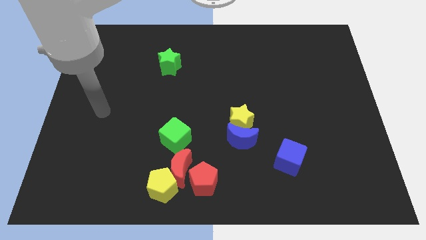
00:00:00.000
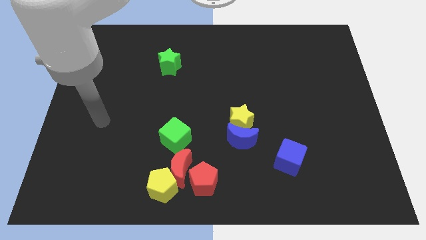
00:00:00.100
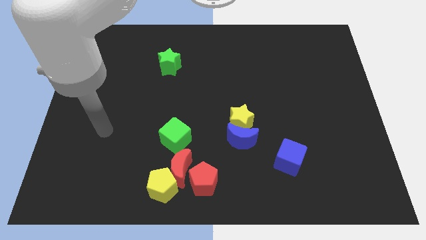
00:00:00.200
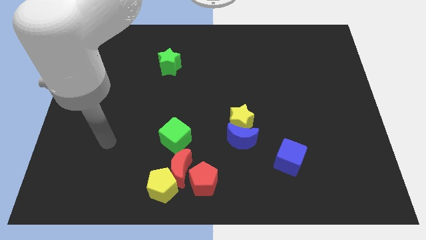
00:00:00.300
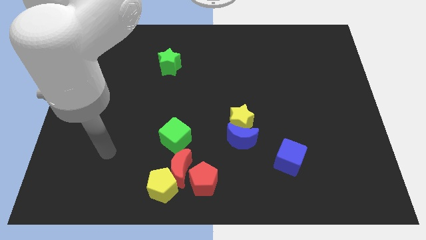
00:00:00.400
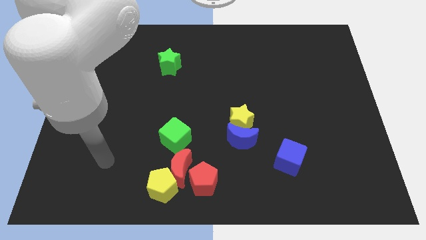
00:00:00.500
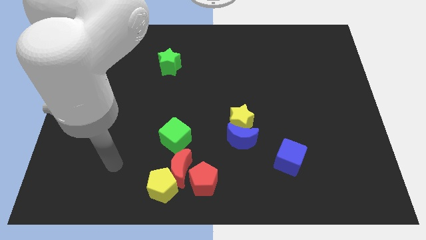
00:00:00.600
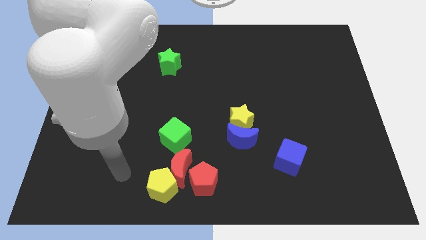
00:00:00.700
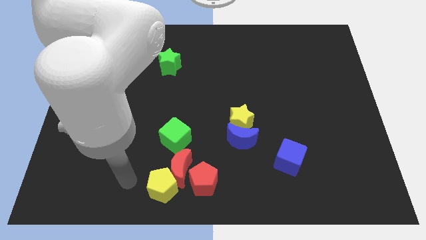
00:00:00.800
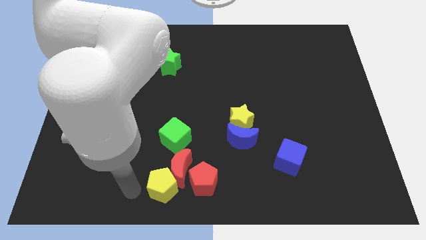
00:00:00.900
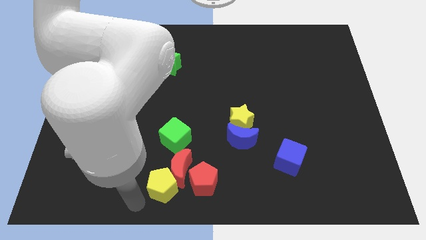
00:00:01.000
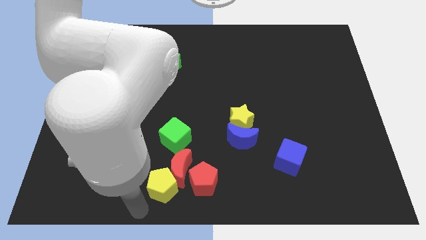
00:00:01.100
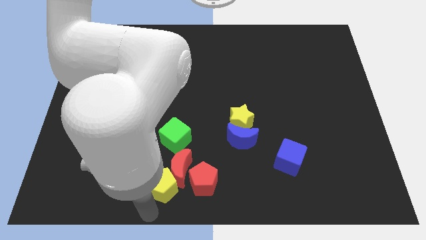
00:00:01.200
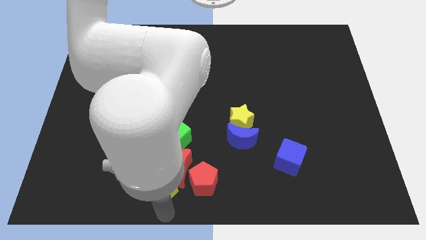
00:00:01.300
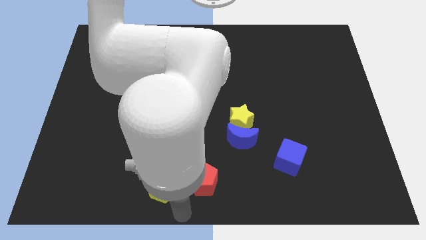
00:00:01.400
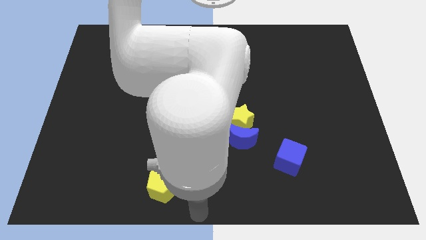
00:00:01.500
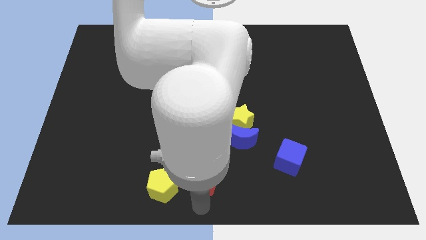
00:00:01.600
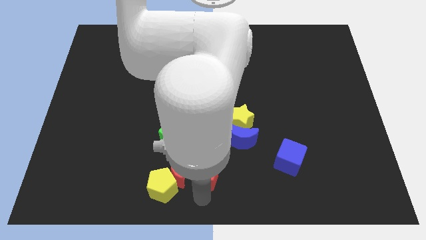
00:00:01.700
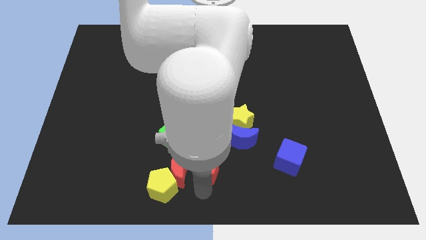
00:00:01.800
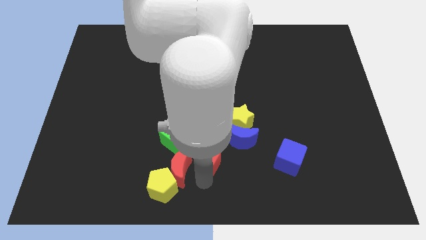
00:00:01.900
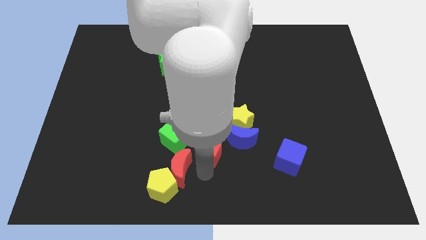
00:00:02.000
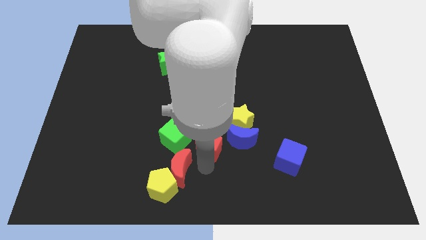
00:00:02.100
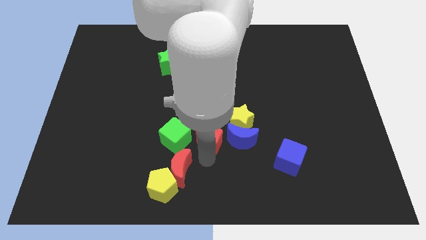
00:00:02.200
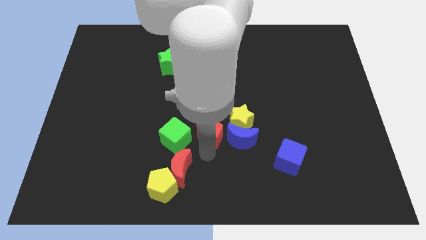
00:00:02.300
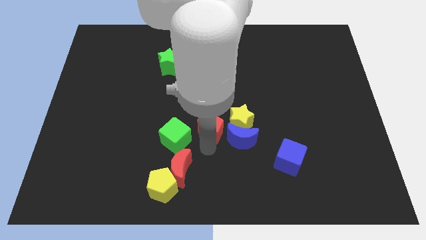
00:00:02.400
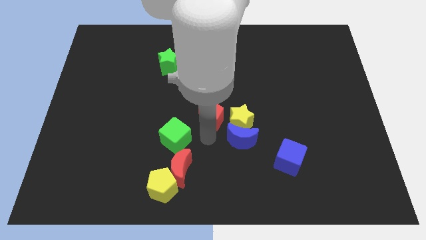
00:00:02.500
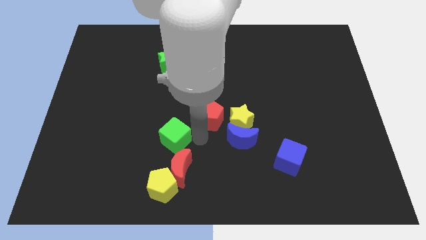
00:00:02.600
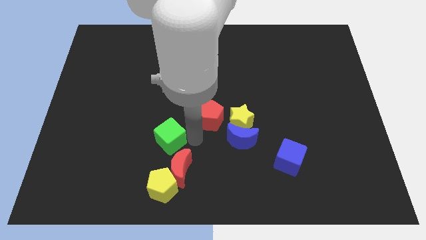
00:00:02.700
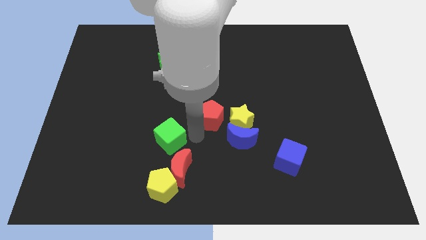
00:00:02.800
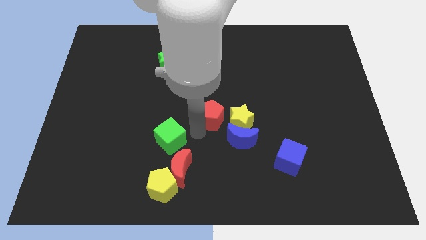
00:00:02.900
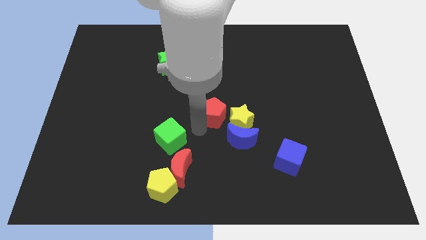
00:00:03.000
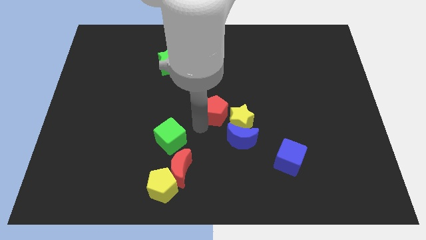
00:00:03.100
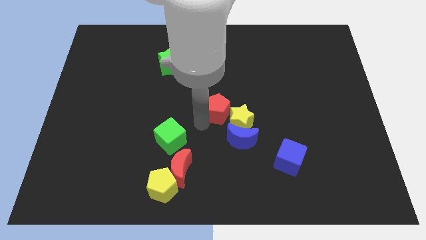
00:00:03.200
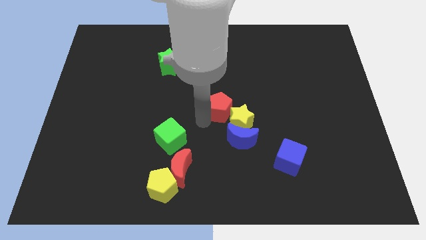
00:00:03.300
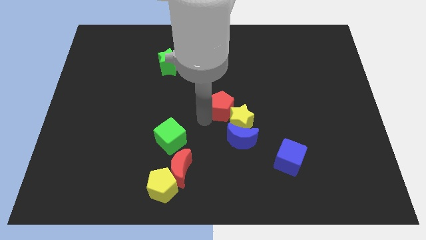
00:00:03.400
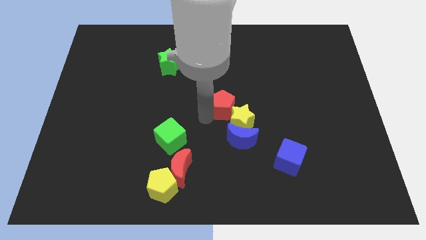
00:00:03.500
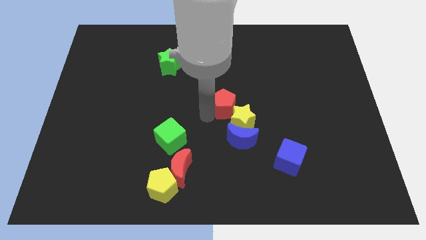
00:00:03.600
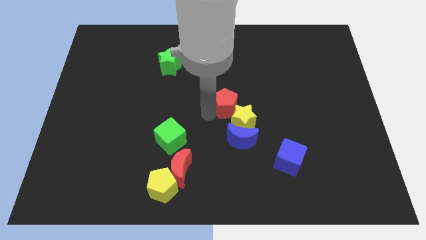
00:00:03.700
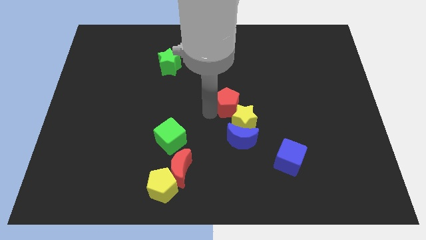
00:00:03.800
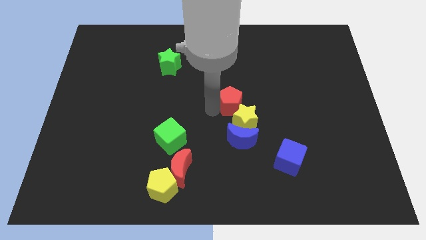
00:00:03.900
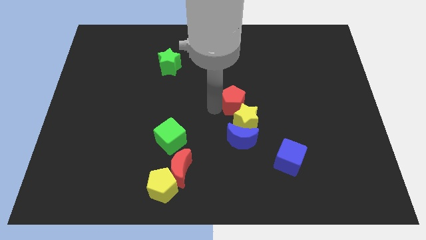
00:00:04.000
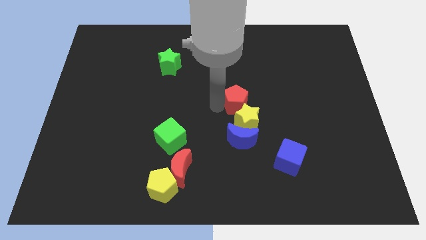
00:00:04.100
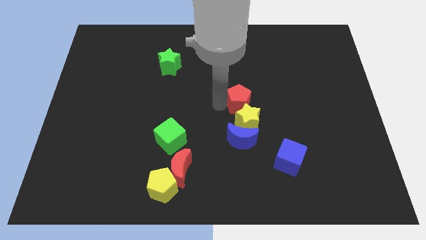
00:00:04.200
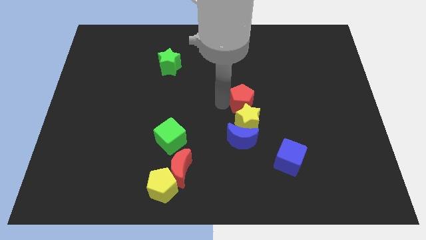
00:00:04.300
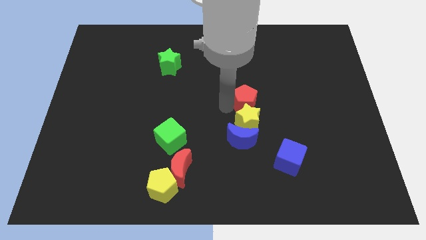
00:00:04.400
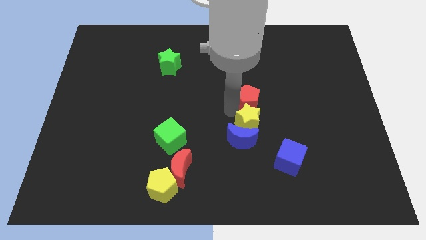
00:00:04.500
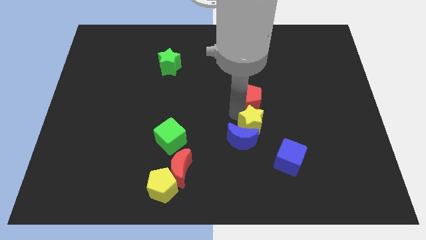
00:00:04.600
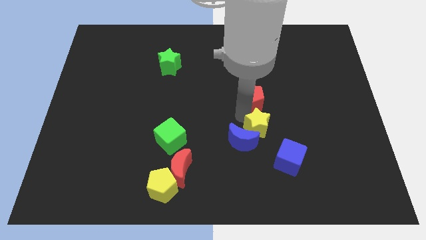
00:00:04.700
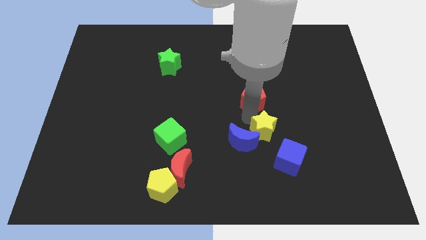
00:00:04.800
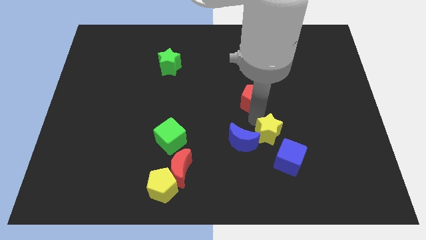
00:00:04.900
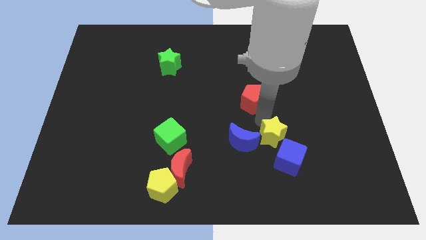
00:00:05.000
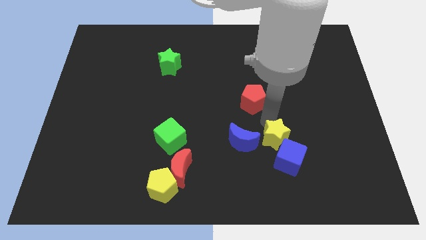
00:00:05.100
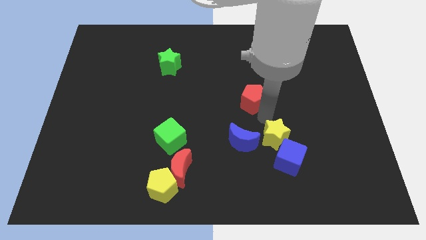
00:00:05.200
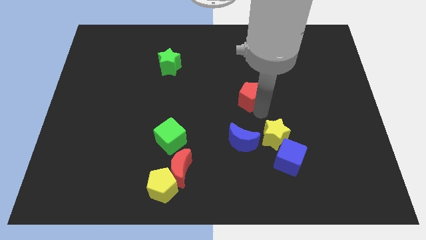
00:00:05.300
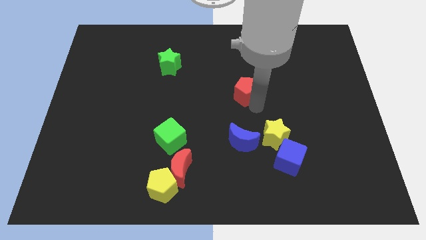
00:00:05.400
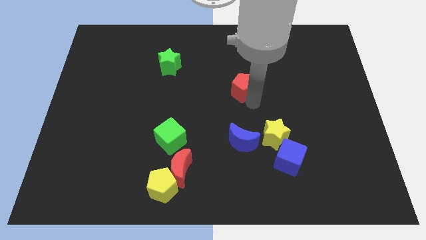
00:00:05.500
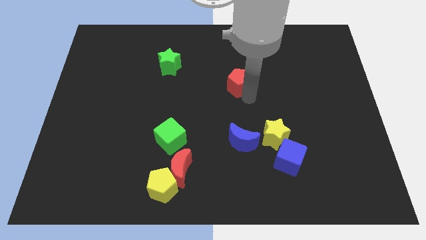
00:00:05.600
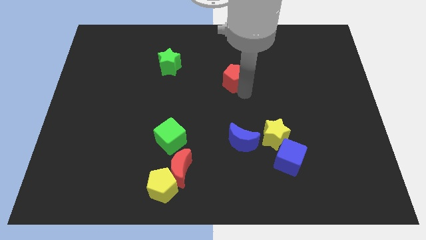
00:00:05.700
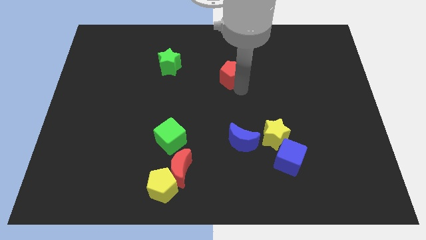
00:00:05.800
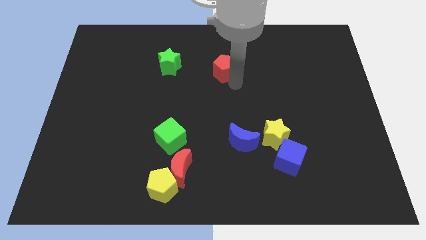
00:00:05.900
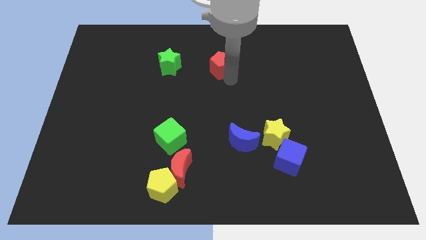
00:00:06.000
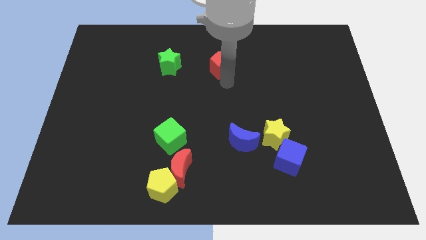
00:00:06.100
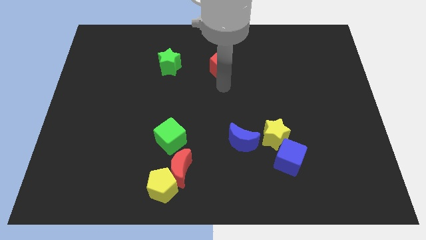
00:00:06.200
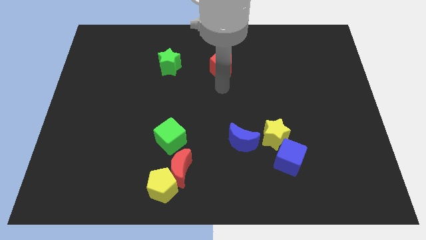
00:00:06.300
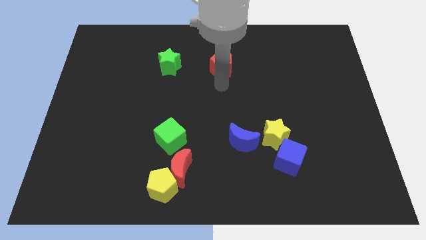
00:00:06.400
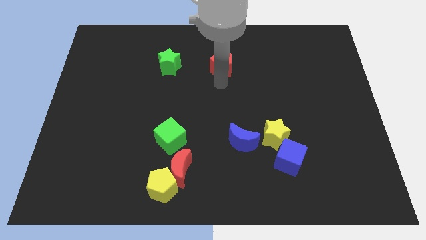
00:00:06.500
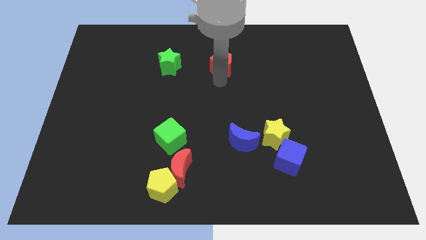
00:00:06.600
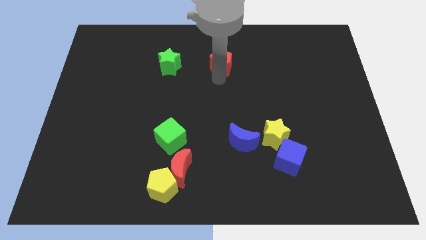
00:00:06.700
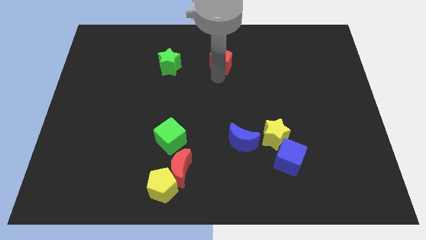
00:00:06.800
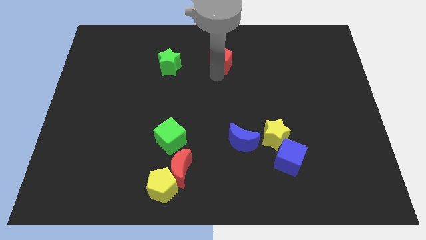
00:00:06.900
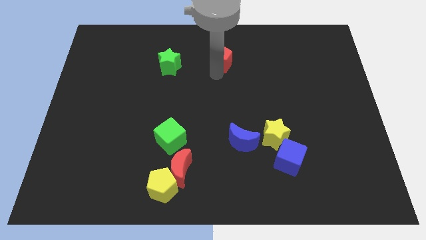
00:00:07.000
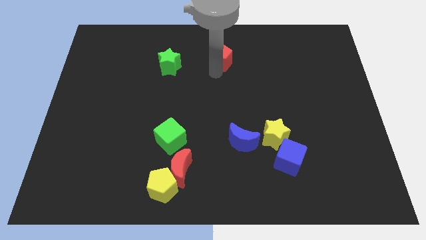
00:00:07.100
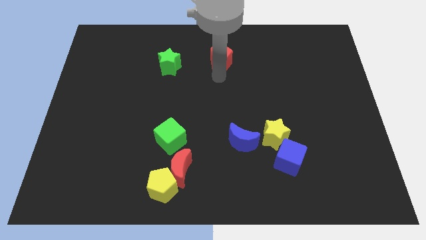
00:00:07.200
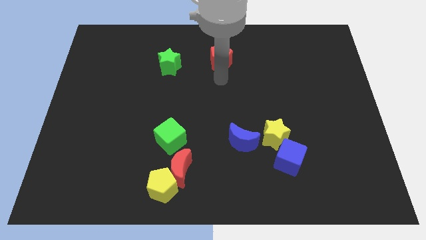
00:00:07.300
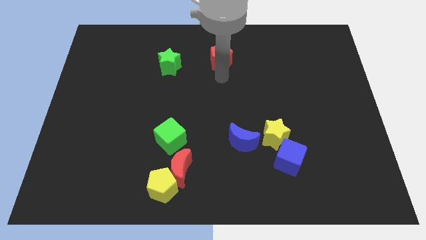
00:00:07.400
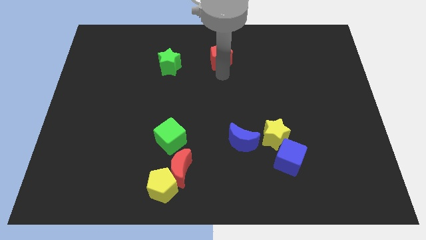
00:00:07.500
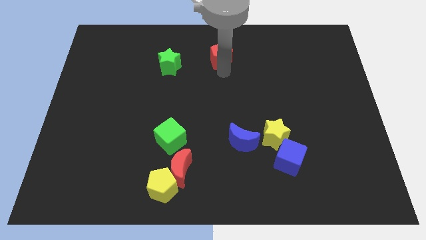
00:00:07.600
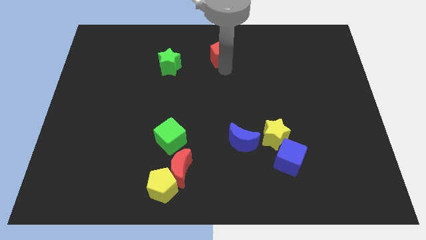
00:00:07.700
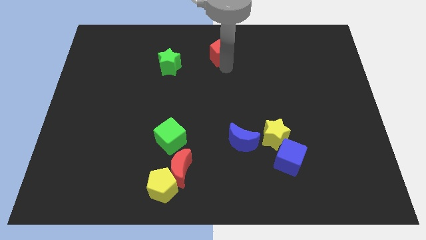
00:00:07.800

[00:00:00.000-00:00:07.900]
push the red pentagon to the top
